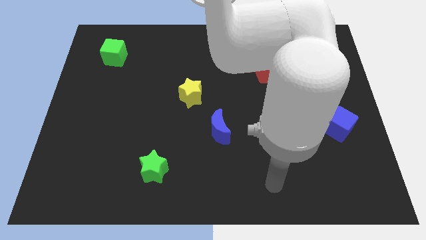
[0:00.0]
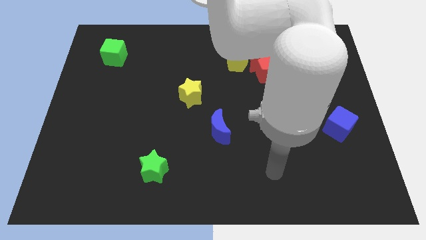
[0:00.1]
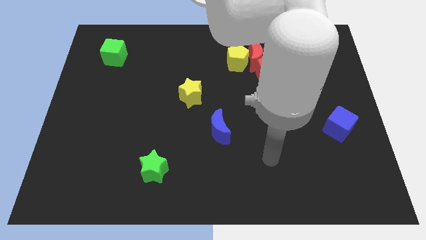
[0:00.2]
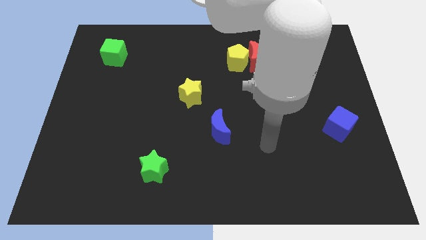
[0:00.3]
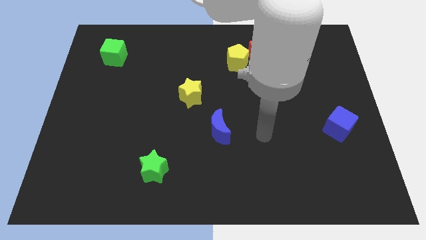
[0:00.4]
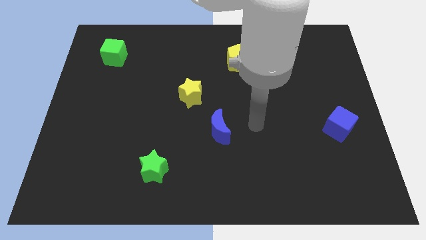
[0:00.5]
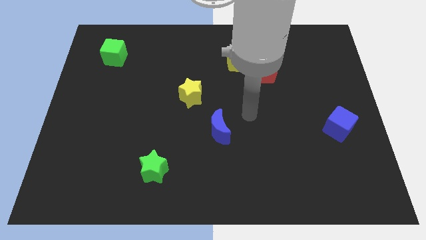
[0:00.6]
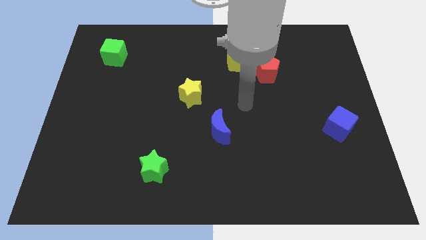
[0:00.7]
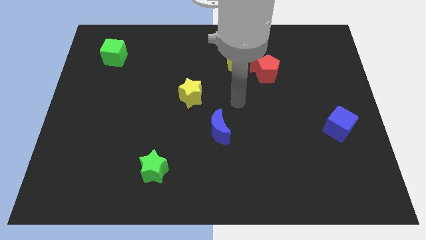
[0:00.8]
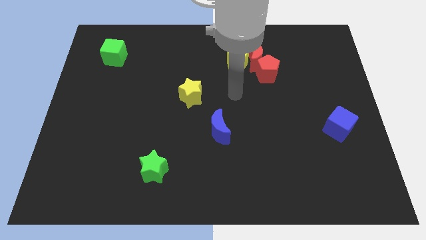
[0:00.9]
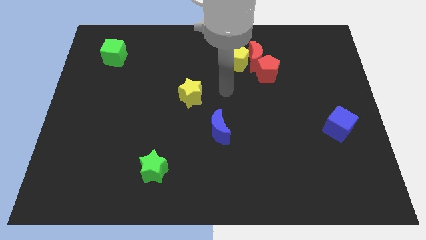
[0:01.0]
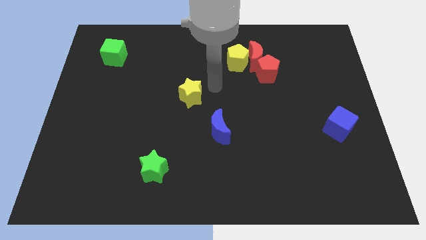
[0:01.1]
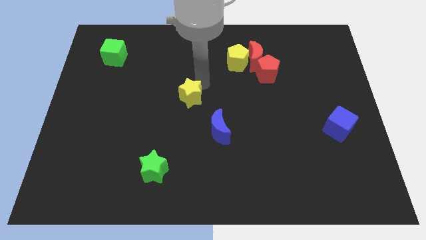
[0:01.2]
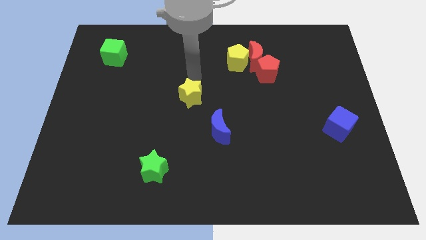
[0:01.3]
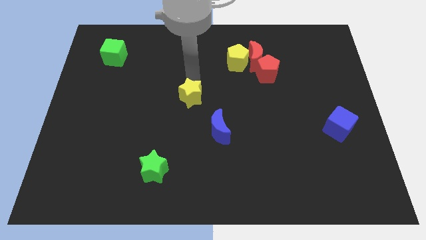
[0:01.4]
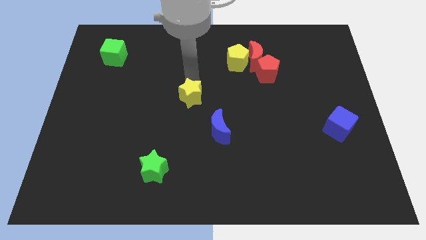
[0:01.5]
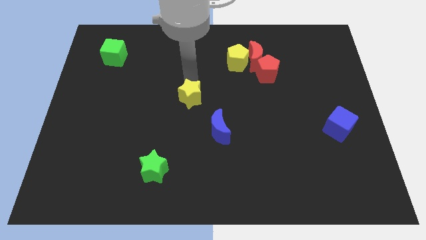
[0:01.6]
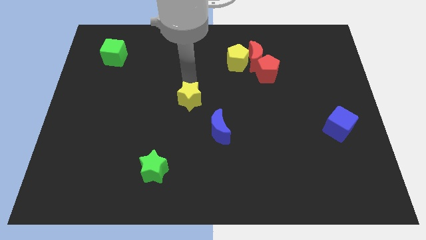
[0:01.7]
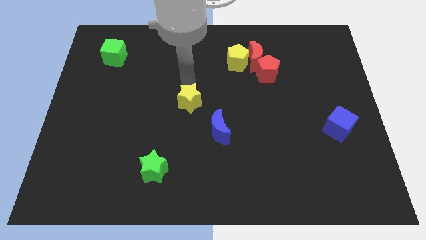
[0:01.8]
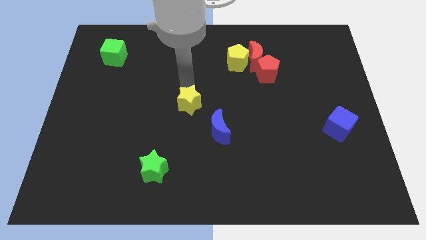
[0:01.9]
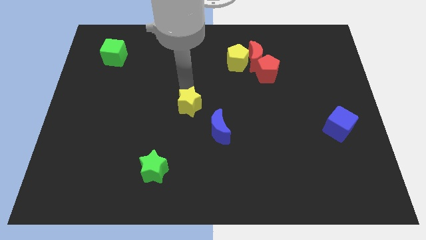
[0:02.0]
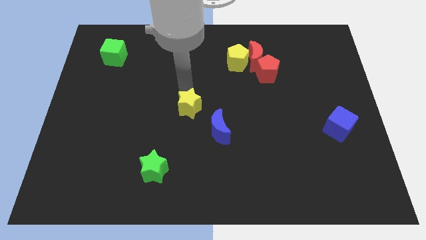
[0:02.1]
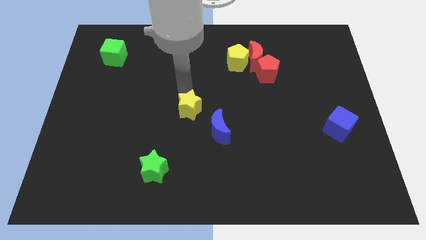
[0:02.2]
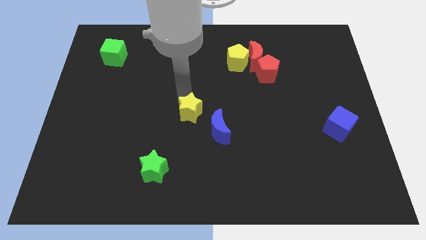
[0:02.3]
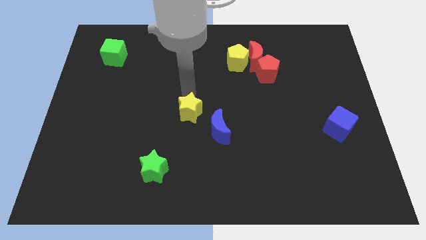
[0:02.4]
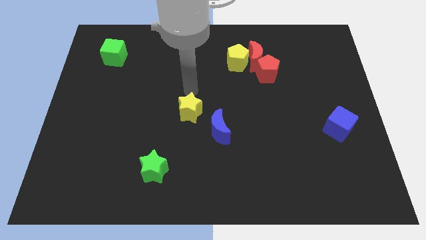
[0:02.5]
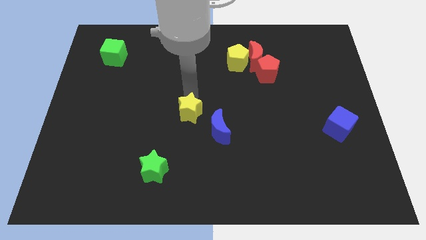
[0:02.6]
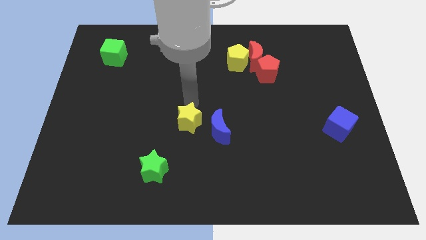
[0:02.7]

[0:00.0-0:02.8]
push the yellow star down a little bit

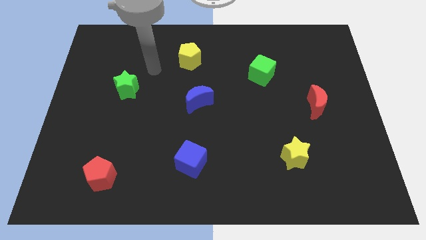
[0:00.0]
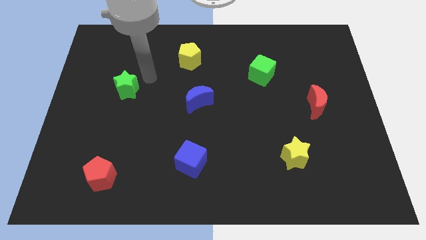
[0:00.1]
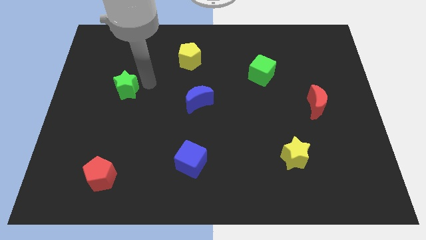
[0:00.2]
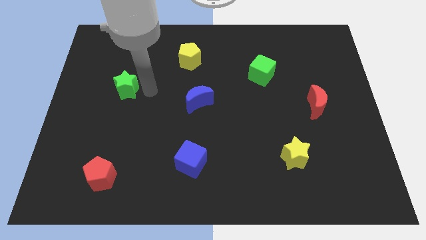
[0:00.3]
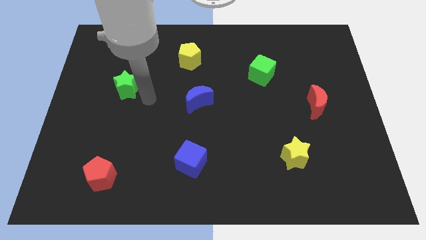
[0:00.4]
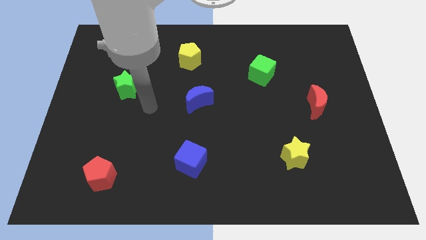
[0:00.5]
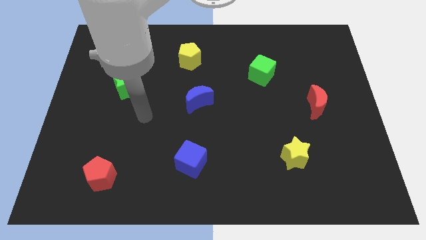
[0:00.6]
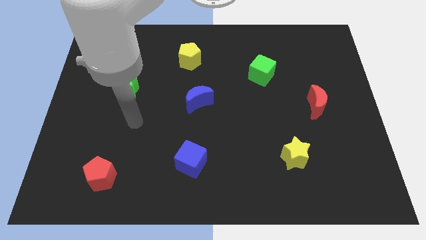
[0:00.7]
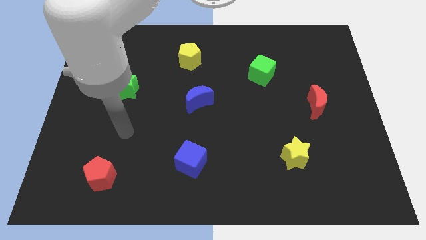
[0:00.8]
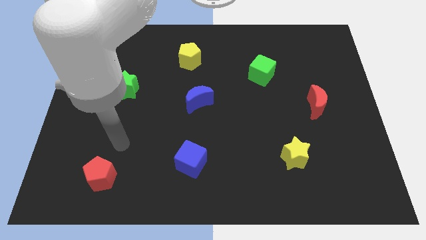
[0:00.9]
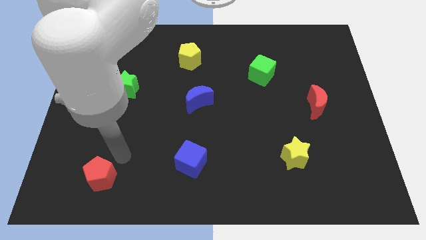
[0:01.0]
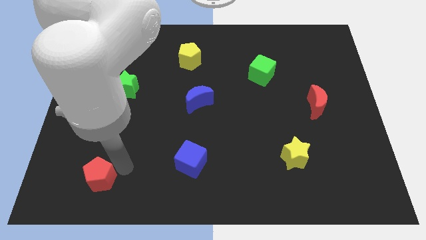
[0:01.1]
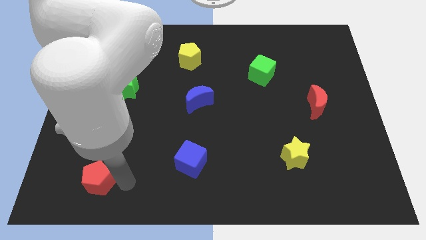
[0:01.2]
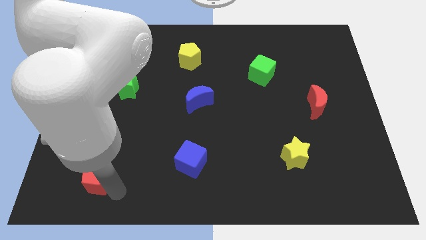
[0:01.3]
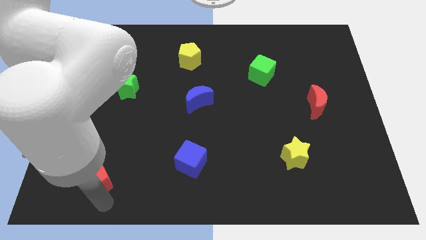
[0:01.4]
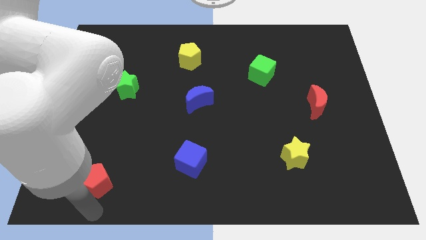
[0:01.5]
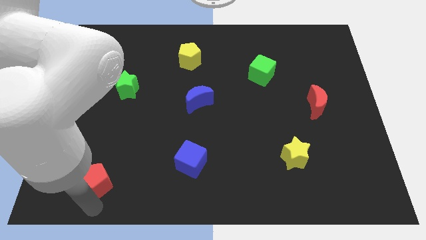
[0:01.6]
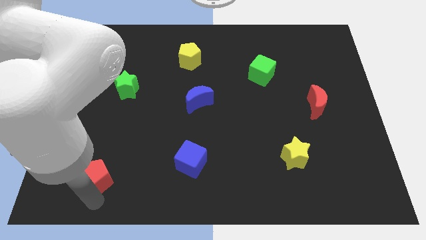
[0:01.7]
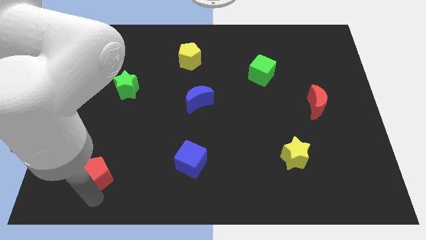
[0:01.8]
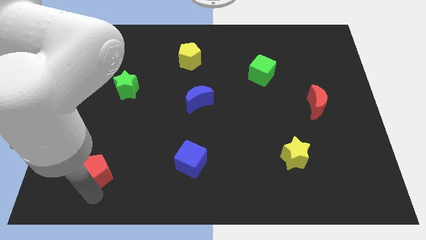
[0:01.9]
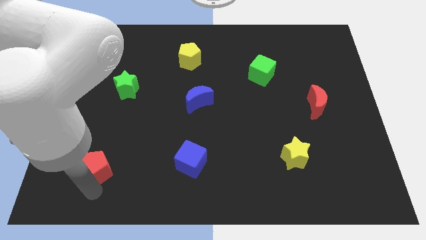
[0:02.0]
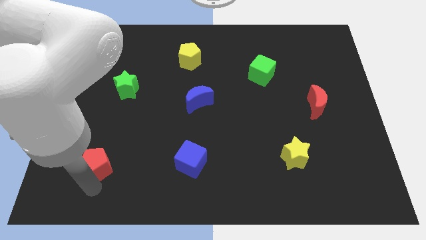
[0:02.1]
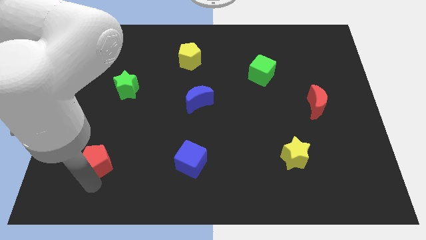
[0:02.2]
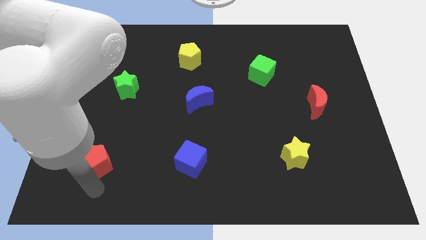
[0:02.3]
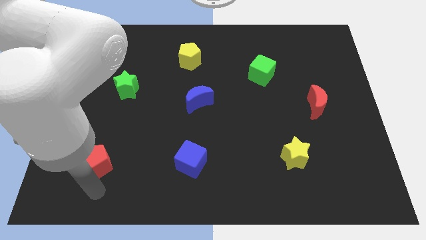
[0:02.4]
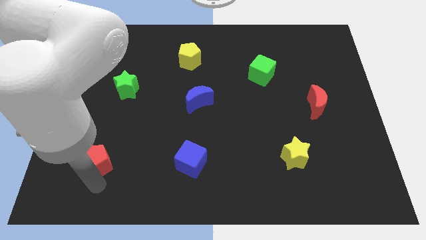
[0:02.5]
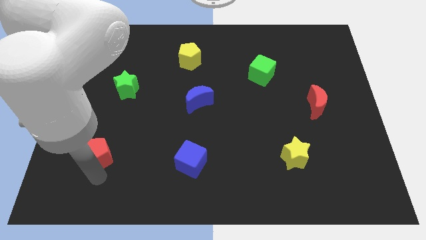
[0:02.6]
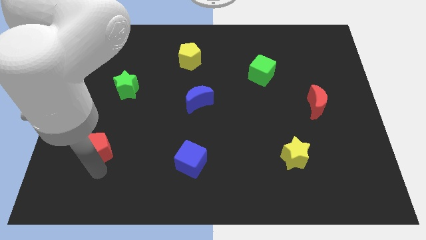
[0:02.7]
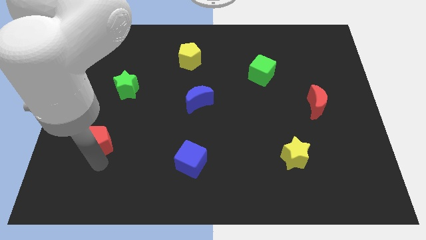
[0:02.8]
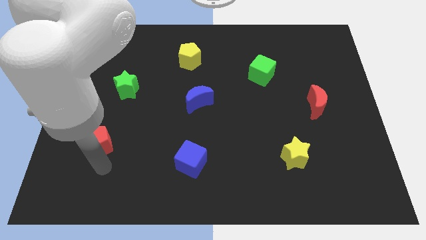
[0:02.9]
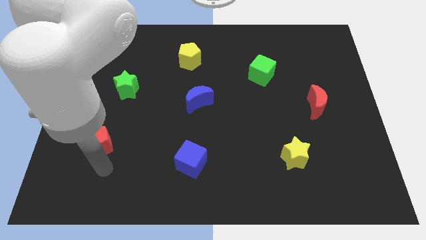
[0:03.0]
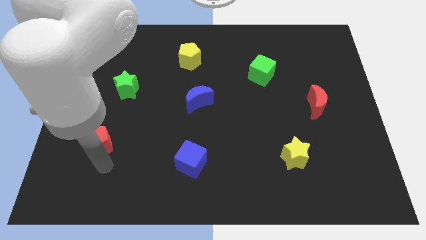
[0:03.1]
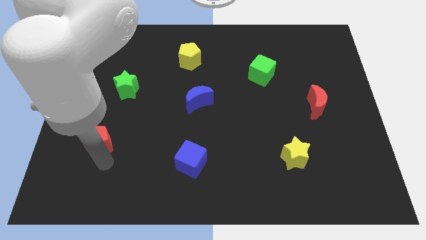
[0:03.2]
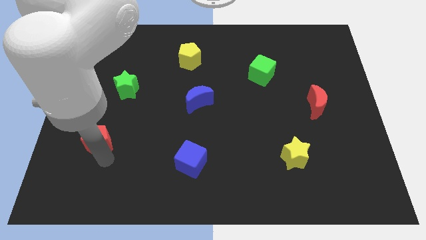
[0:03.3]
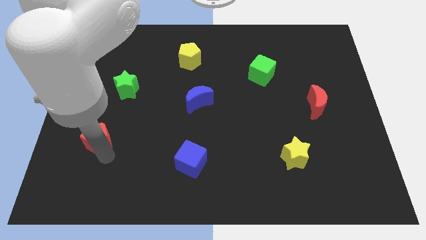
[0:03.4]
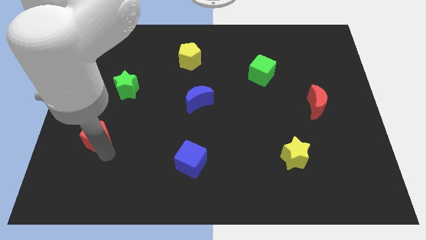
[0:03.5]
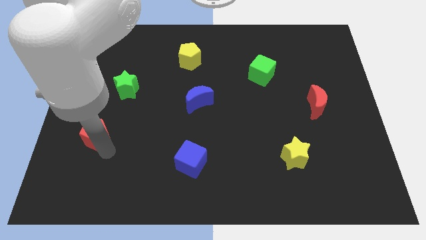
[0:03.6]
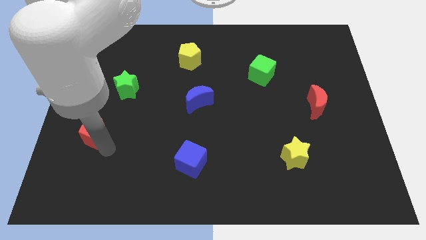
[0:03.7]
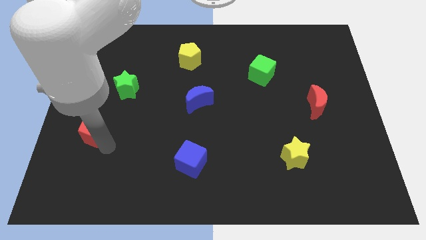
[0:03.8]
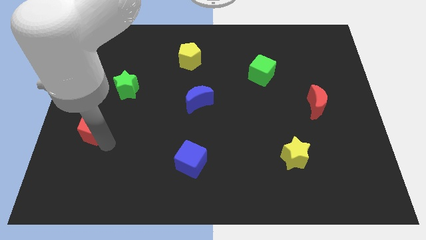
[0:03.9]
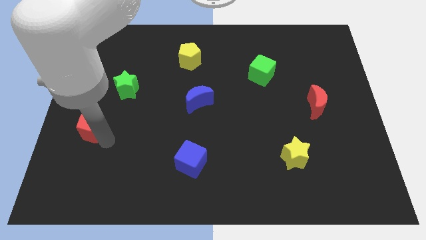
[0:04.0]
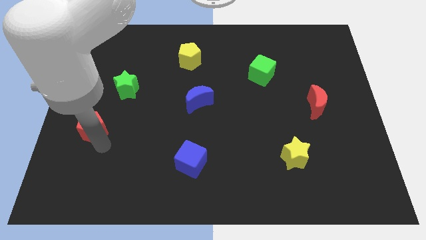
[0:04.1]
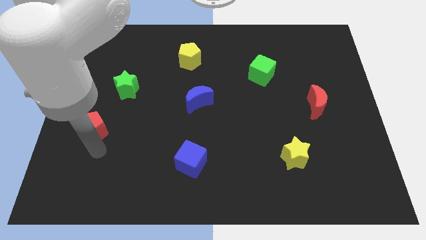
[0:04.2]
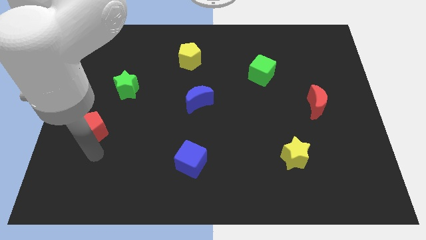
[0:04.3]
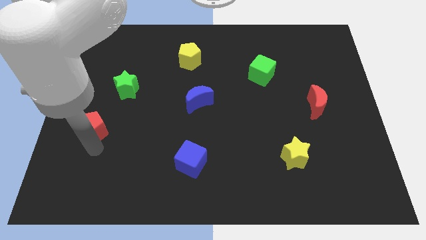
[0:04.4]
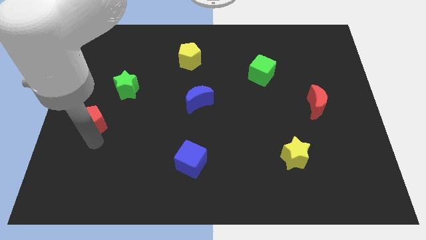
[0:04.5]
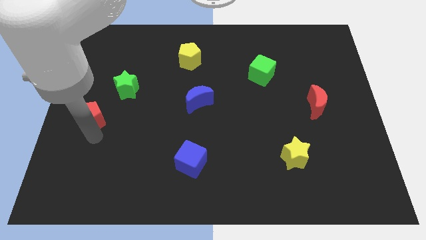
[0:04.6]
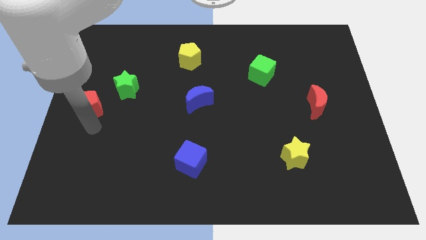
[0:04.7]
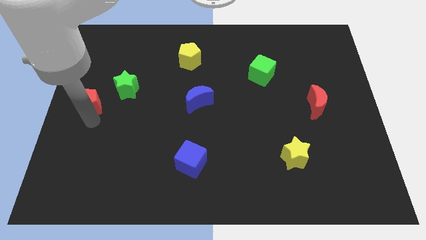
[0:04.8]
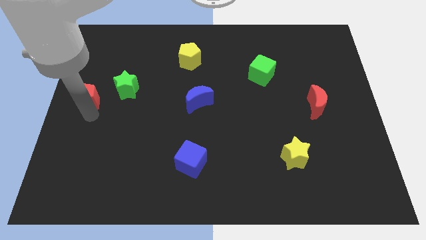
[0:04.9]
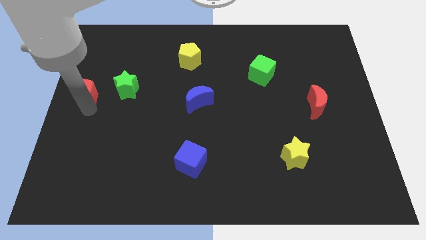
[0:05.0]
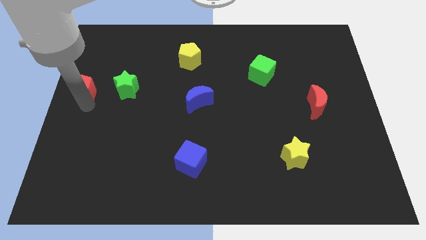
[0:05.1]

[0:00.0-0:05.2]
slide the red pentagon upwards
